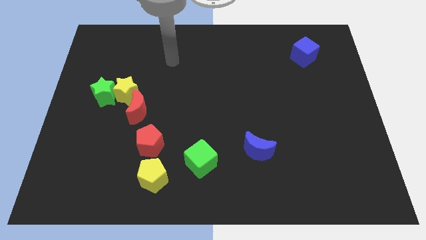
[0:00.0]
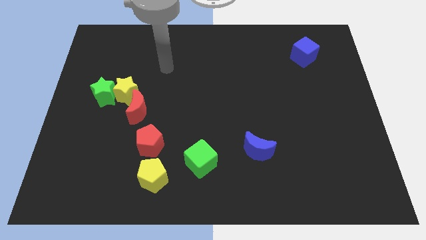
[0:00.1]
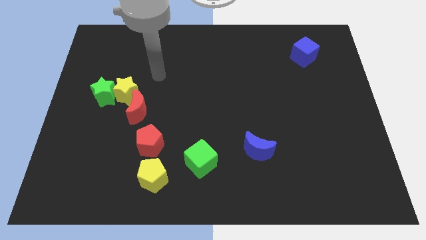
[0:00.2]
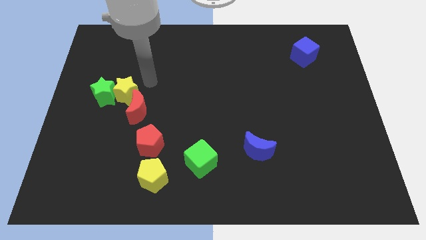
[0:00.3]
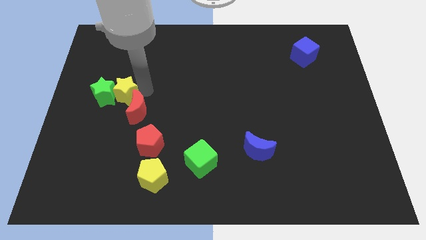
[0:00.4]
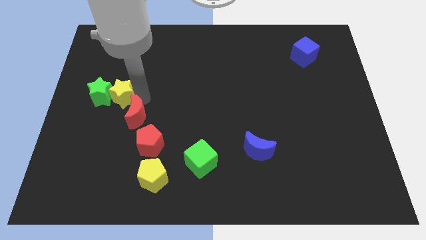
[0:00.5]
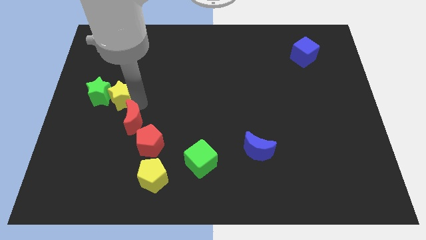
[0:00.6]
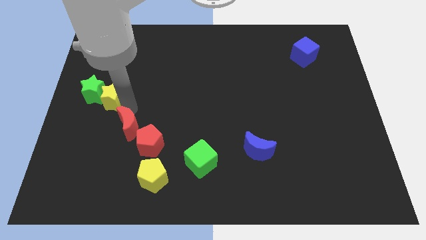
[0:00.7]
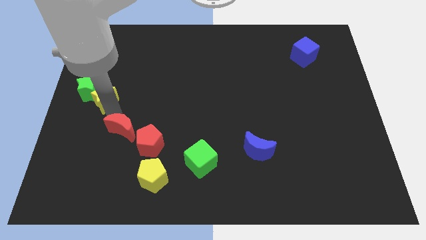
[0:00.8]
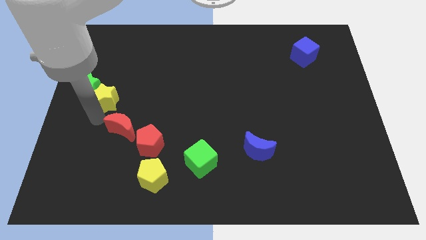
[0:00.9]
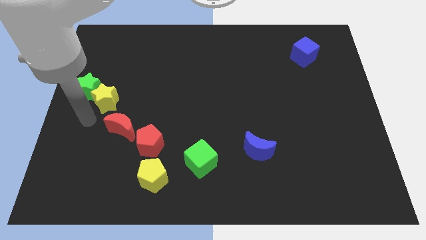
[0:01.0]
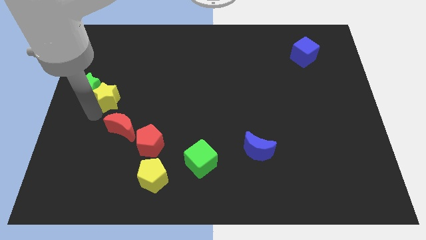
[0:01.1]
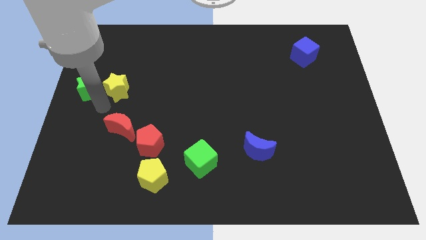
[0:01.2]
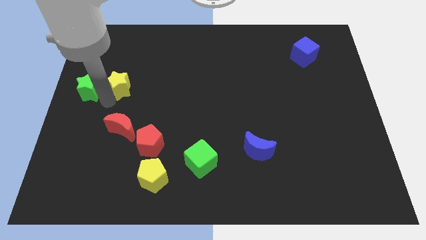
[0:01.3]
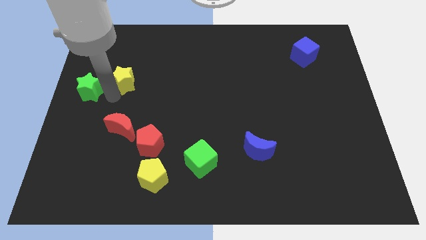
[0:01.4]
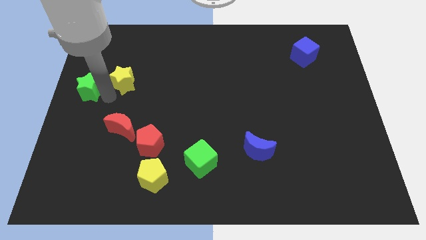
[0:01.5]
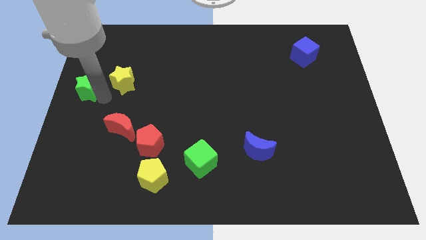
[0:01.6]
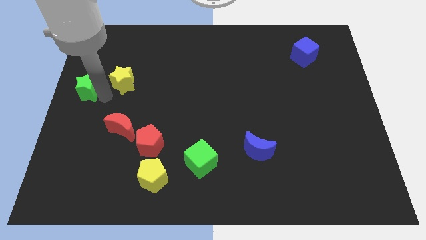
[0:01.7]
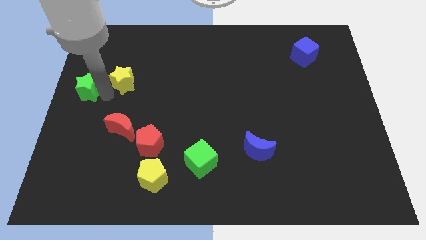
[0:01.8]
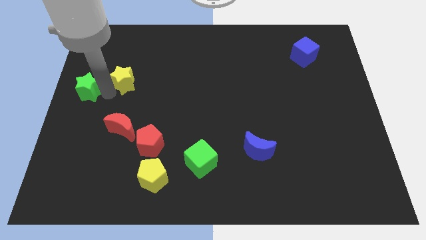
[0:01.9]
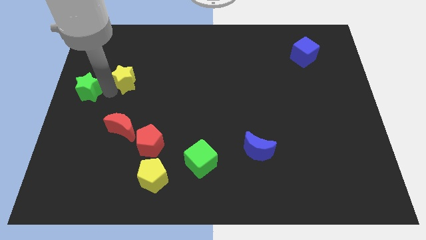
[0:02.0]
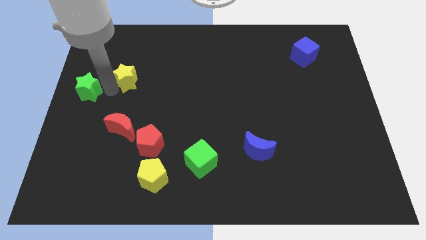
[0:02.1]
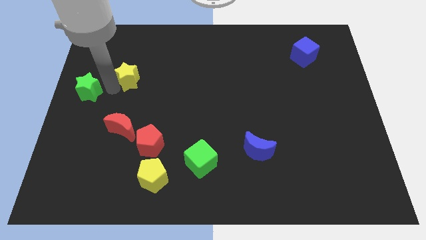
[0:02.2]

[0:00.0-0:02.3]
move the yellow star away from the green star and red moon

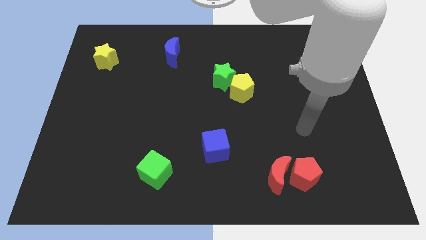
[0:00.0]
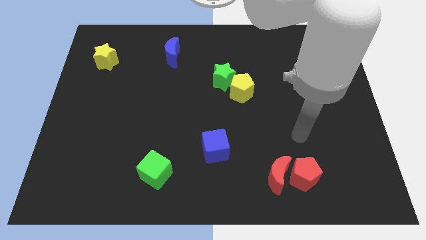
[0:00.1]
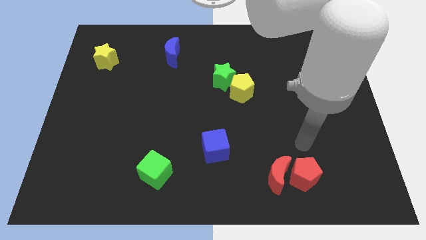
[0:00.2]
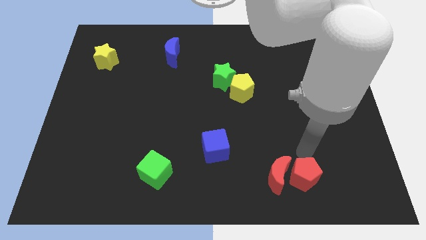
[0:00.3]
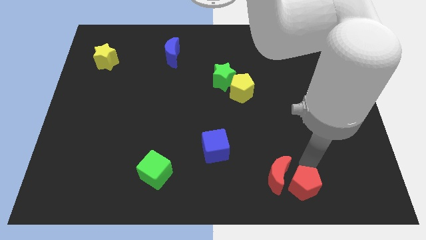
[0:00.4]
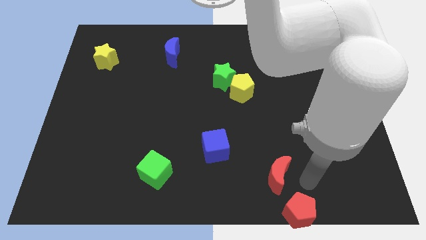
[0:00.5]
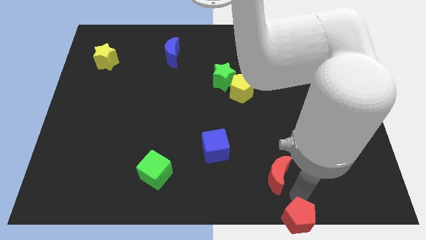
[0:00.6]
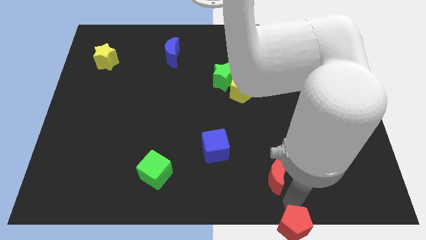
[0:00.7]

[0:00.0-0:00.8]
move the red moon away from the red pentagon

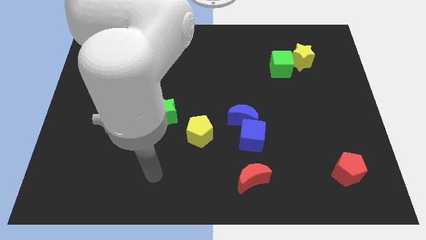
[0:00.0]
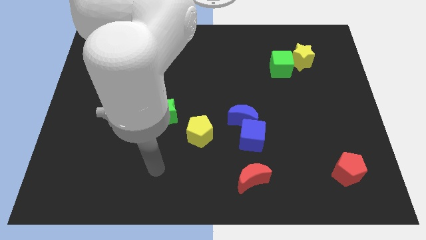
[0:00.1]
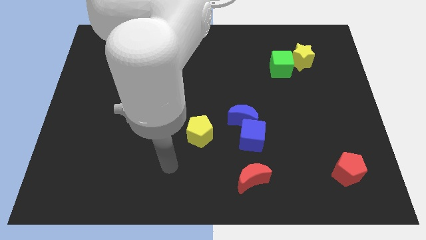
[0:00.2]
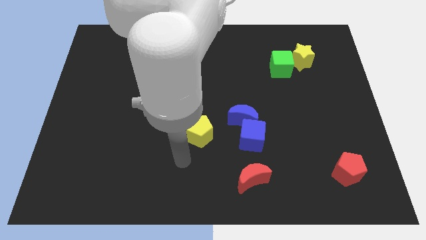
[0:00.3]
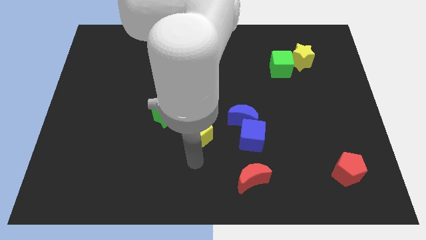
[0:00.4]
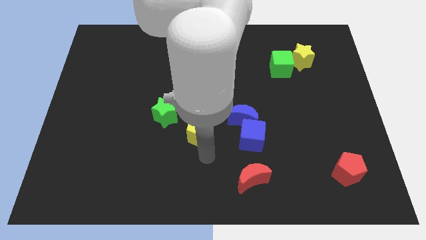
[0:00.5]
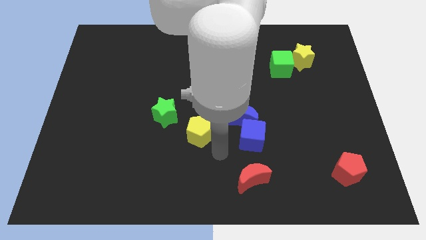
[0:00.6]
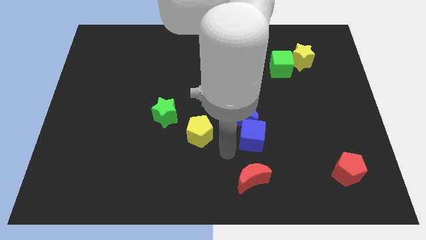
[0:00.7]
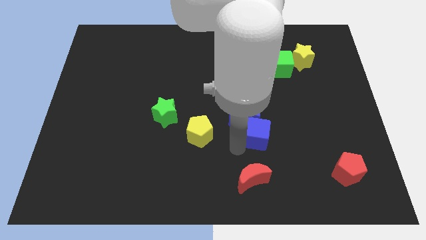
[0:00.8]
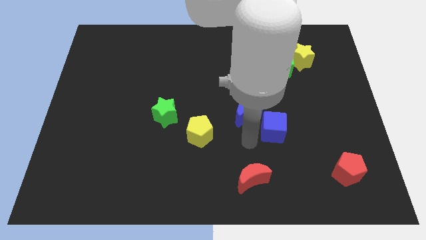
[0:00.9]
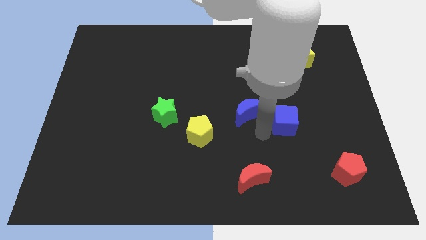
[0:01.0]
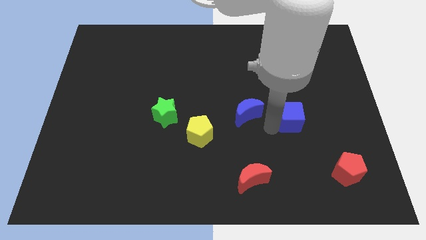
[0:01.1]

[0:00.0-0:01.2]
separate the blue moon from the blue cube

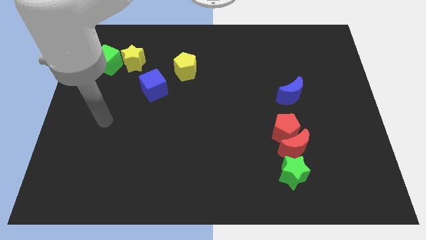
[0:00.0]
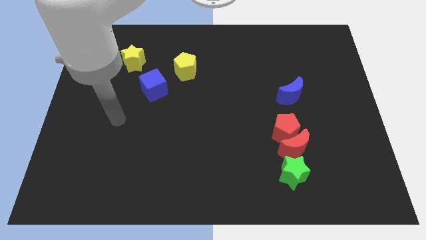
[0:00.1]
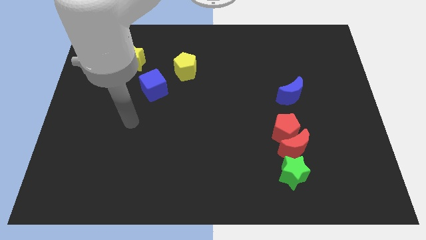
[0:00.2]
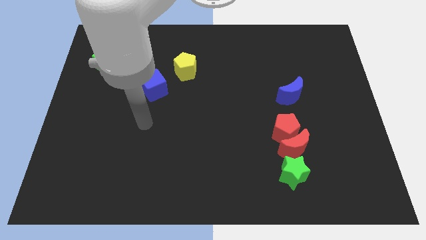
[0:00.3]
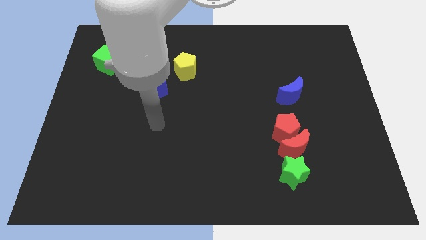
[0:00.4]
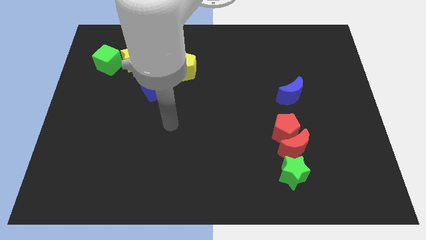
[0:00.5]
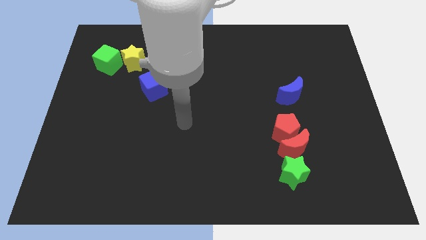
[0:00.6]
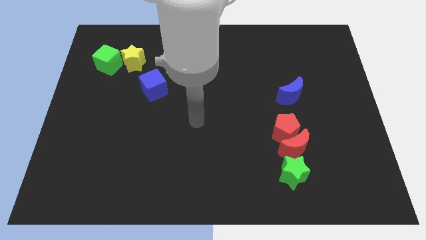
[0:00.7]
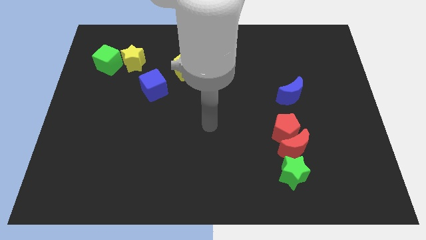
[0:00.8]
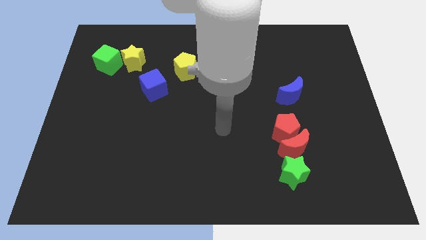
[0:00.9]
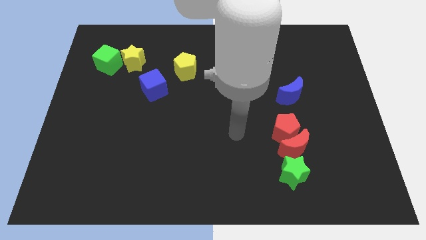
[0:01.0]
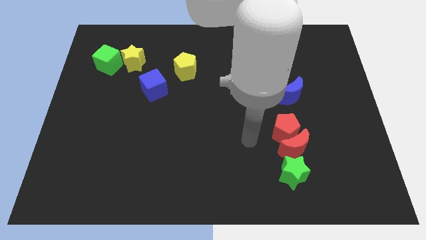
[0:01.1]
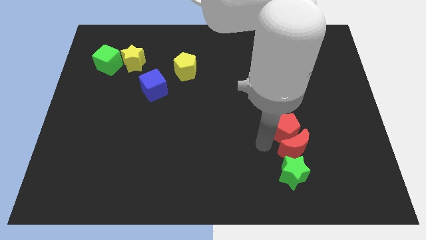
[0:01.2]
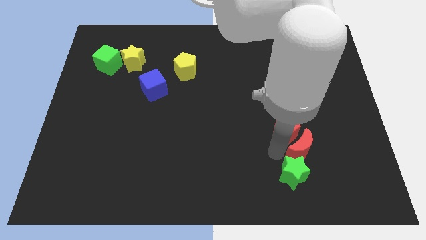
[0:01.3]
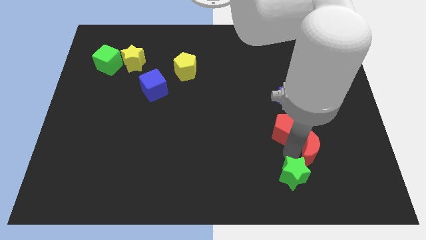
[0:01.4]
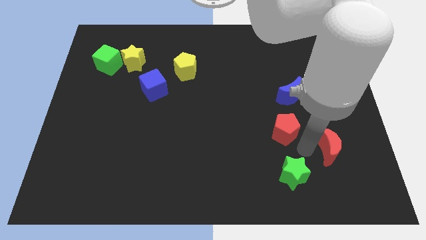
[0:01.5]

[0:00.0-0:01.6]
move the red pentagon away from the red moon

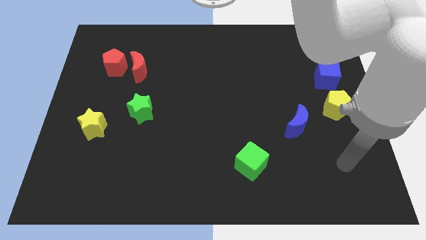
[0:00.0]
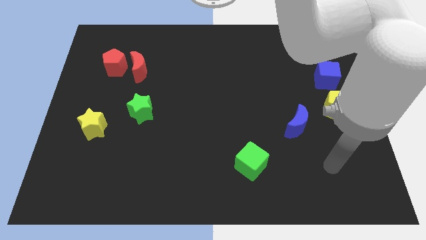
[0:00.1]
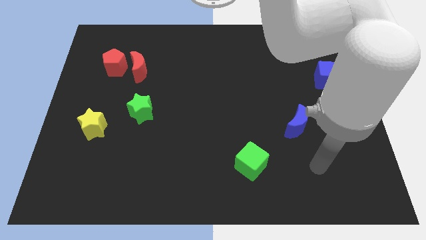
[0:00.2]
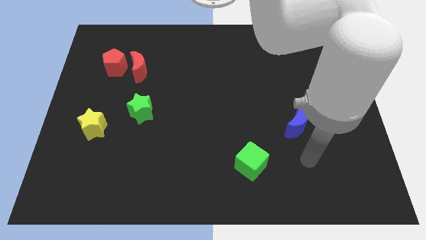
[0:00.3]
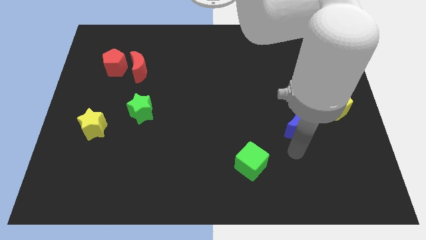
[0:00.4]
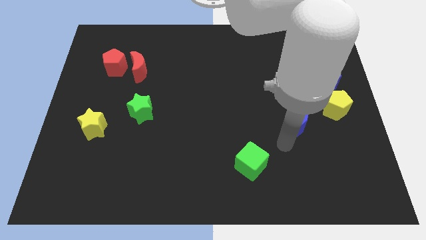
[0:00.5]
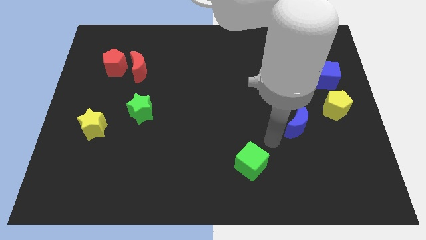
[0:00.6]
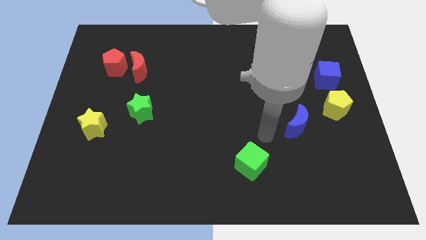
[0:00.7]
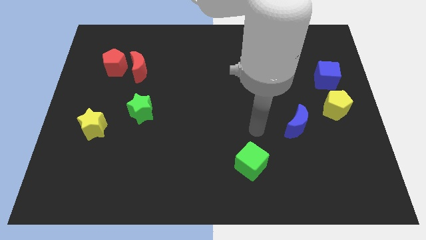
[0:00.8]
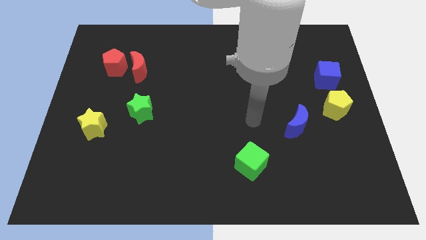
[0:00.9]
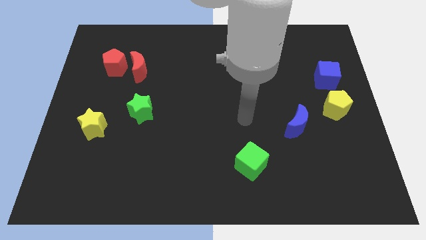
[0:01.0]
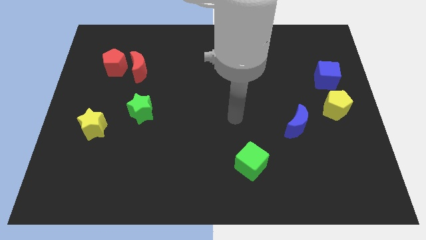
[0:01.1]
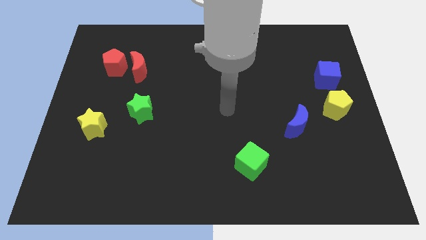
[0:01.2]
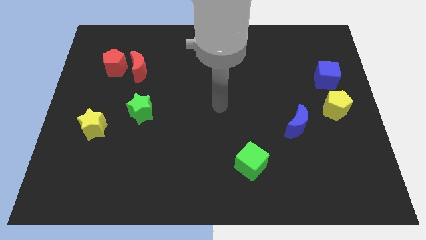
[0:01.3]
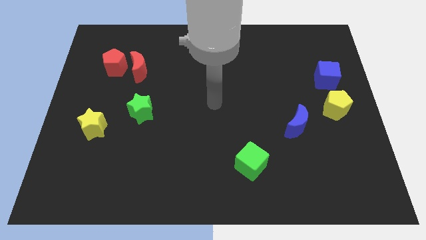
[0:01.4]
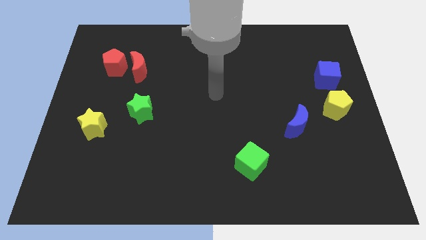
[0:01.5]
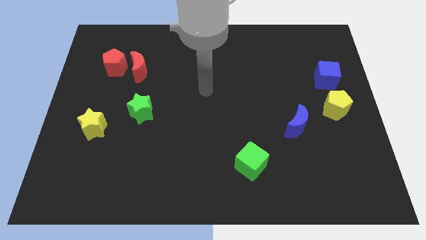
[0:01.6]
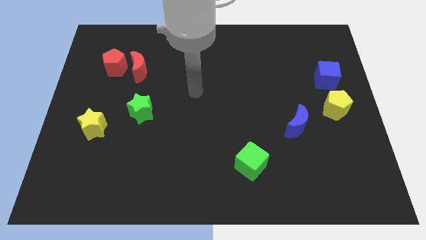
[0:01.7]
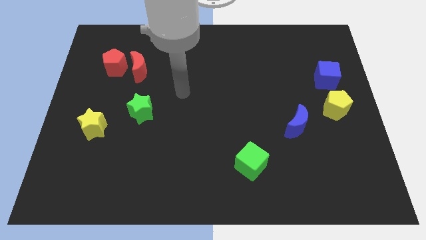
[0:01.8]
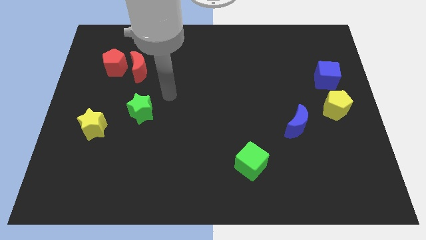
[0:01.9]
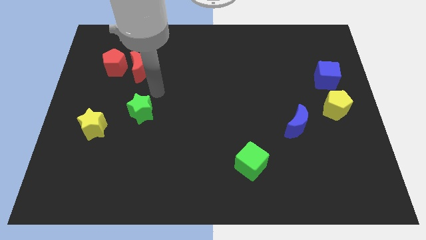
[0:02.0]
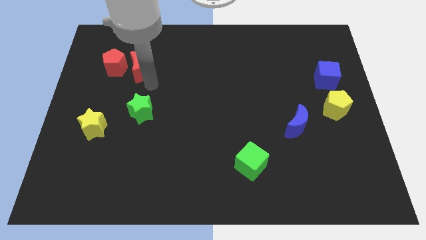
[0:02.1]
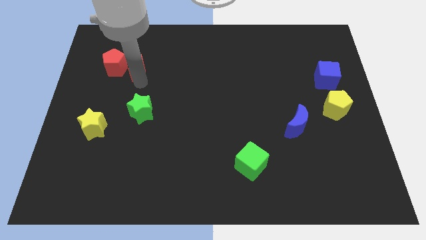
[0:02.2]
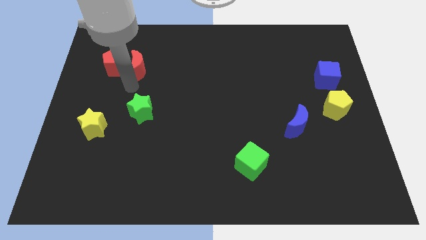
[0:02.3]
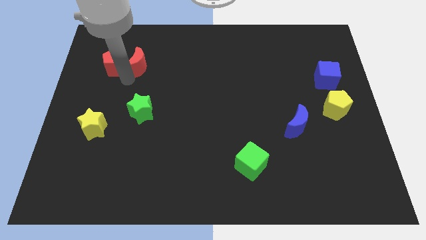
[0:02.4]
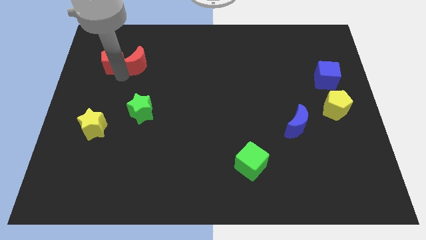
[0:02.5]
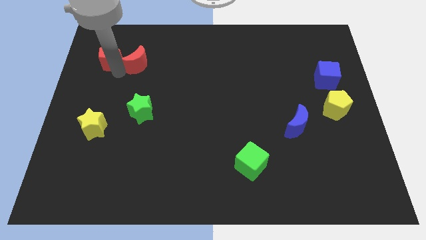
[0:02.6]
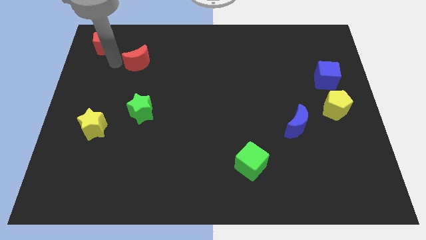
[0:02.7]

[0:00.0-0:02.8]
pull the red moon apart from the red pentagon

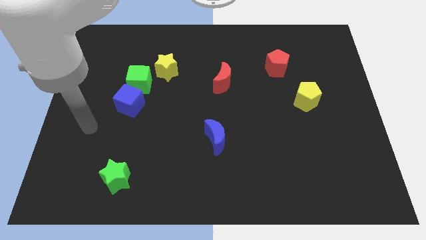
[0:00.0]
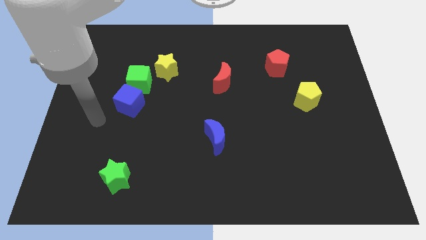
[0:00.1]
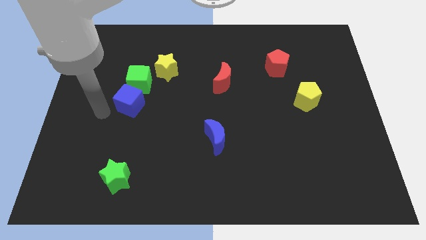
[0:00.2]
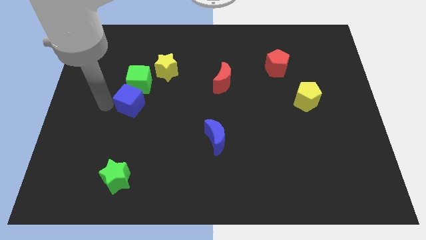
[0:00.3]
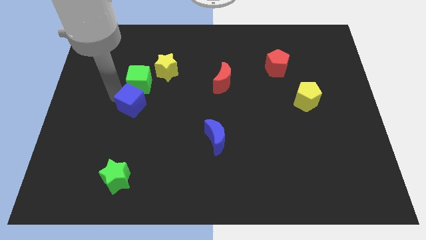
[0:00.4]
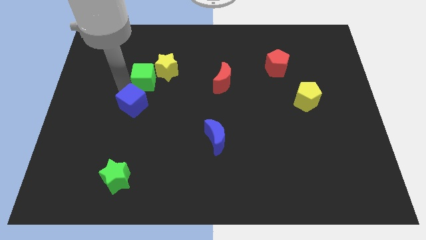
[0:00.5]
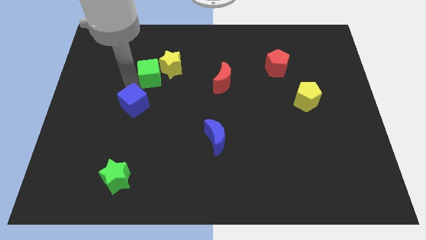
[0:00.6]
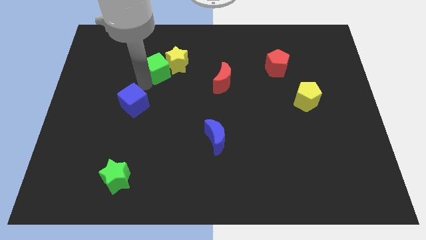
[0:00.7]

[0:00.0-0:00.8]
pull the blue cube apart from the green cube
